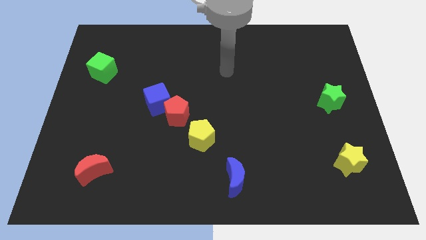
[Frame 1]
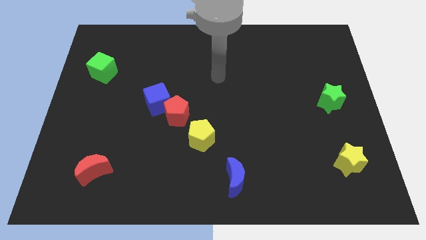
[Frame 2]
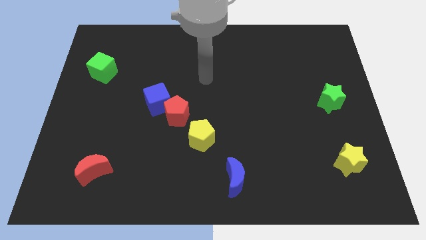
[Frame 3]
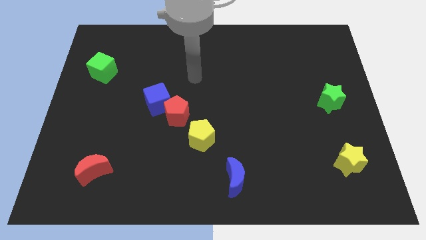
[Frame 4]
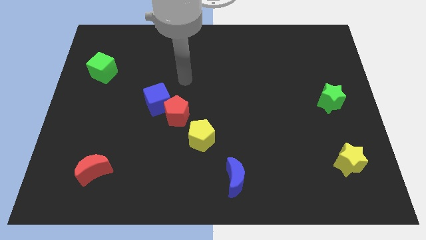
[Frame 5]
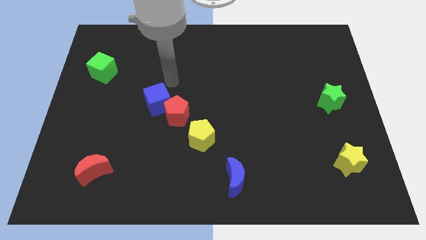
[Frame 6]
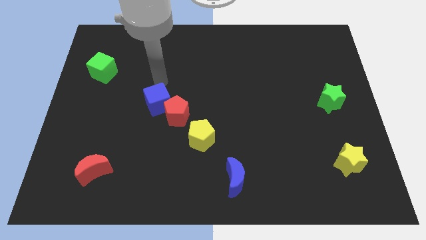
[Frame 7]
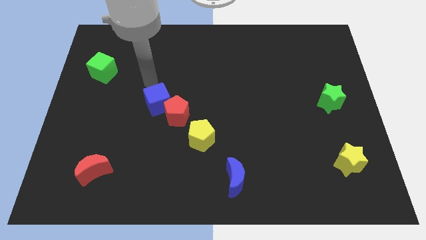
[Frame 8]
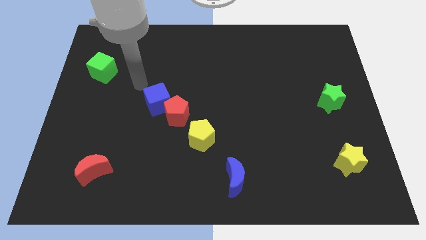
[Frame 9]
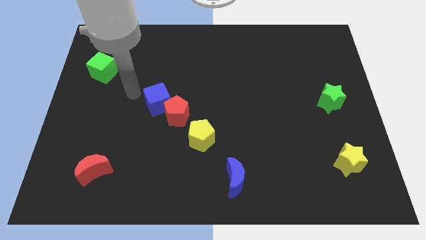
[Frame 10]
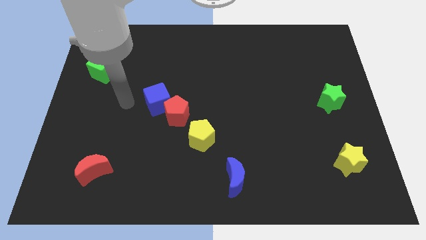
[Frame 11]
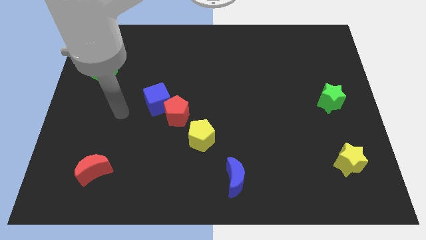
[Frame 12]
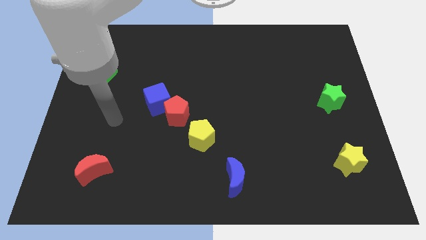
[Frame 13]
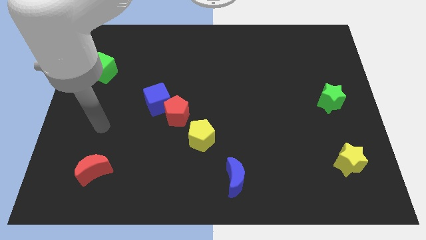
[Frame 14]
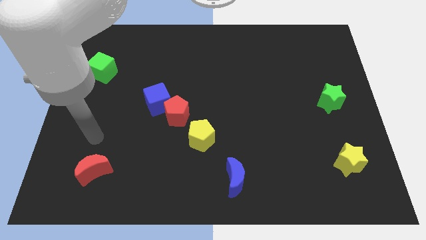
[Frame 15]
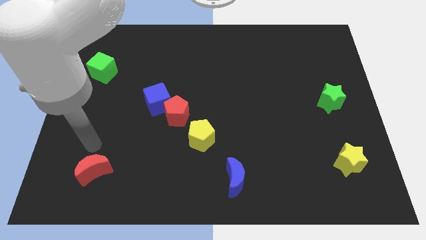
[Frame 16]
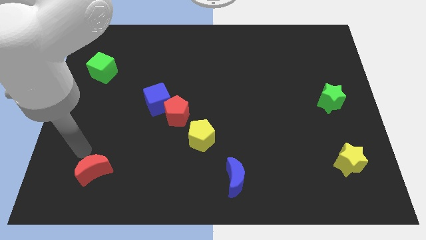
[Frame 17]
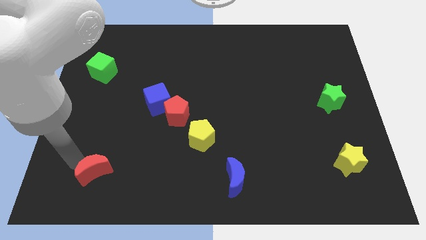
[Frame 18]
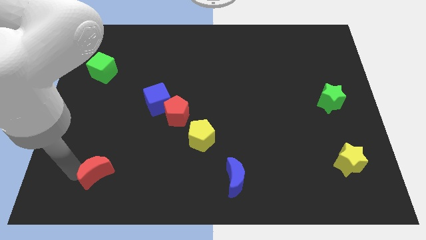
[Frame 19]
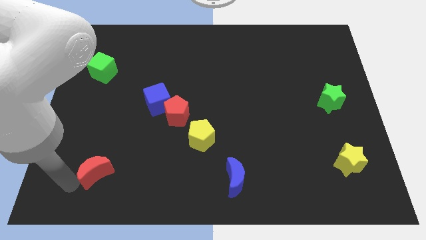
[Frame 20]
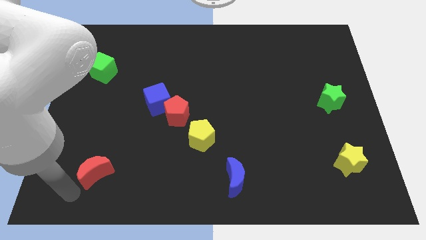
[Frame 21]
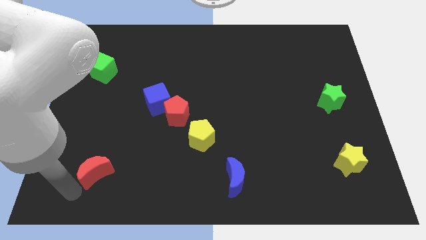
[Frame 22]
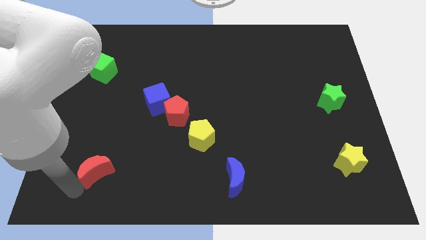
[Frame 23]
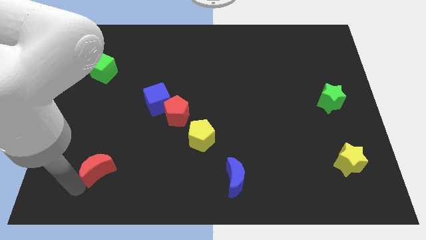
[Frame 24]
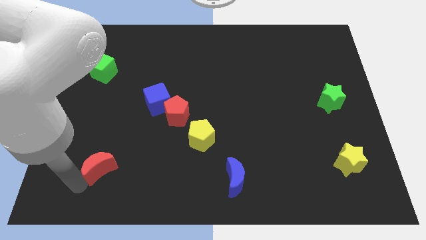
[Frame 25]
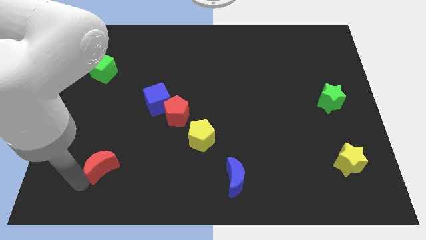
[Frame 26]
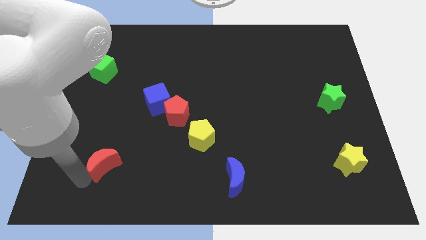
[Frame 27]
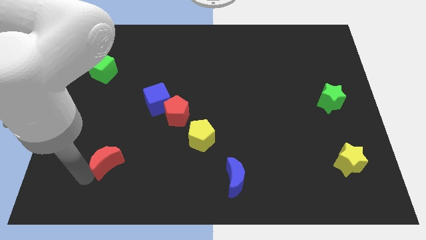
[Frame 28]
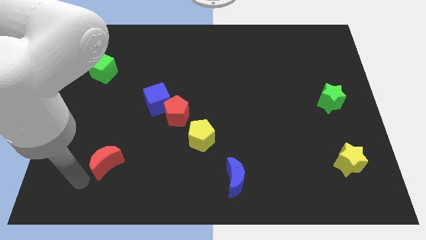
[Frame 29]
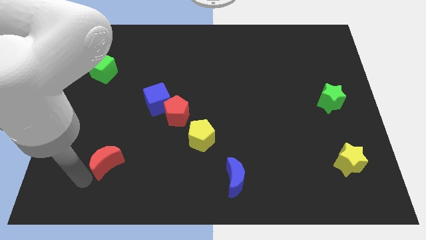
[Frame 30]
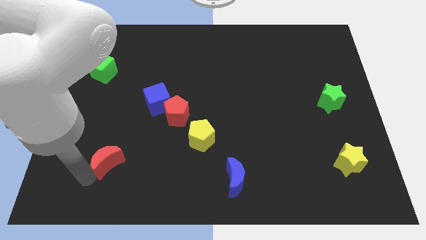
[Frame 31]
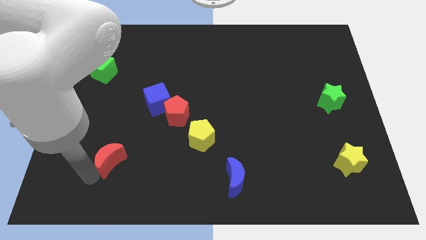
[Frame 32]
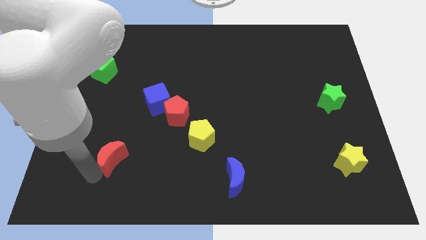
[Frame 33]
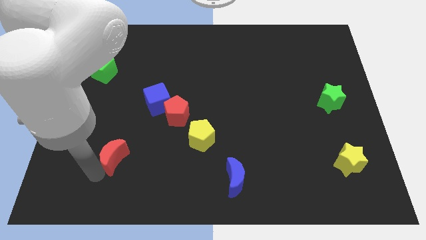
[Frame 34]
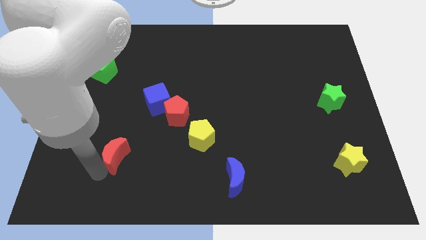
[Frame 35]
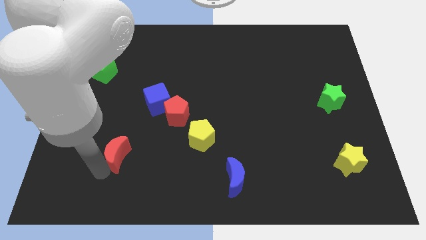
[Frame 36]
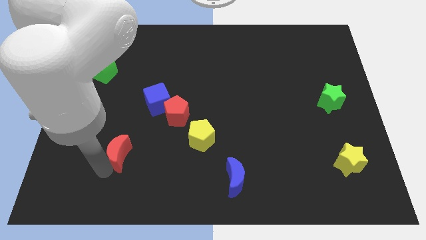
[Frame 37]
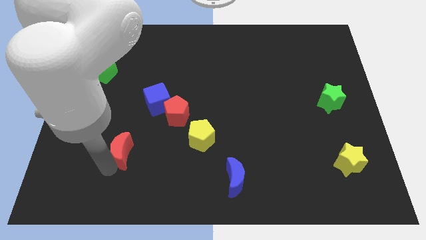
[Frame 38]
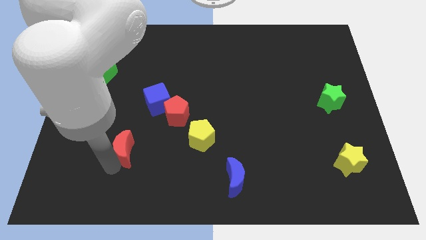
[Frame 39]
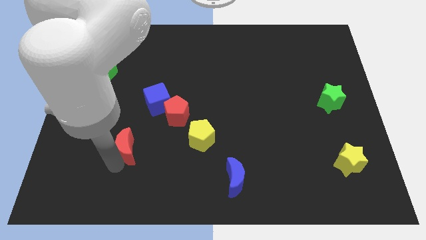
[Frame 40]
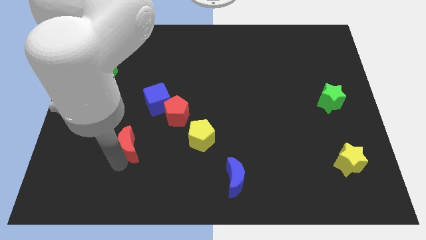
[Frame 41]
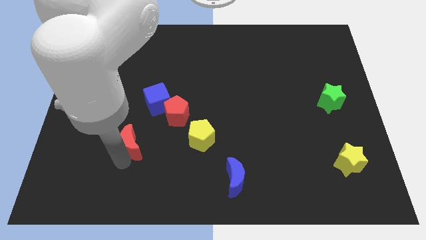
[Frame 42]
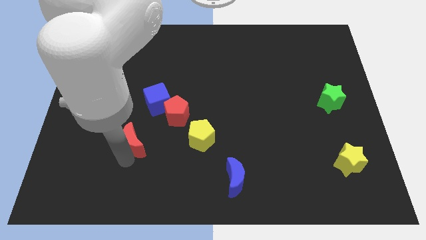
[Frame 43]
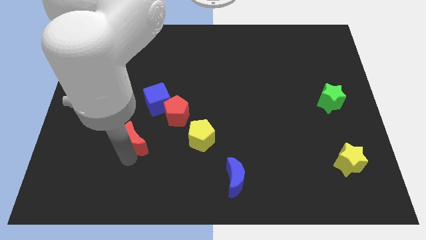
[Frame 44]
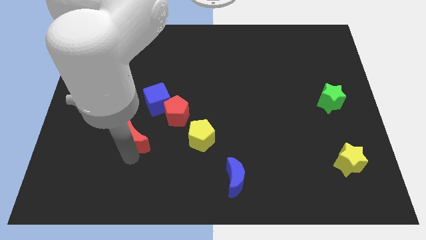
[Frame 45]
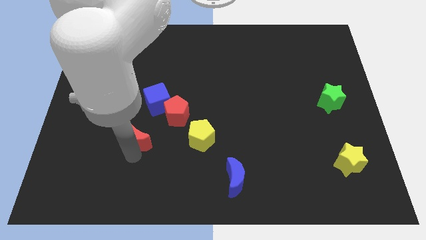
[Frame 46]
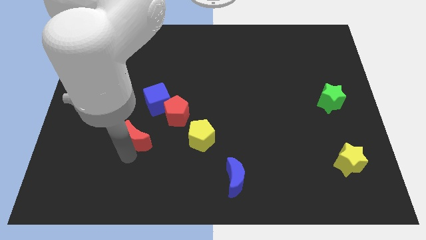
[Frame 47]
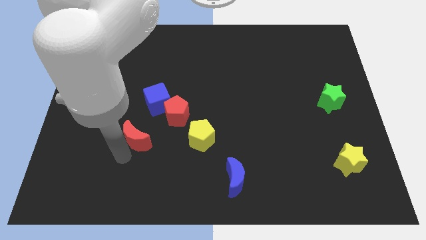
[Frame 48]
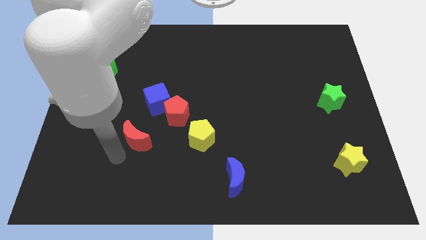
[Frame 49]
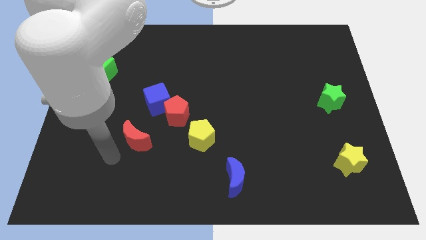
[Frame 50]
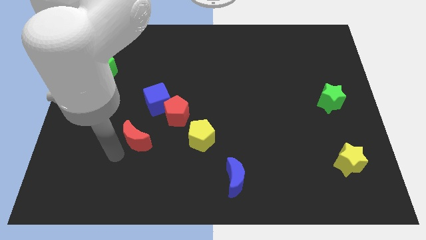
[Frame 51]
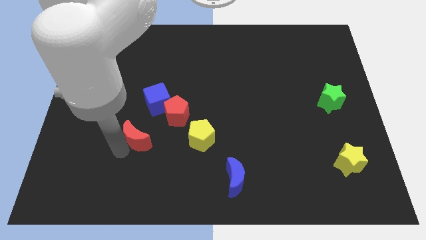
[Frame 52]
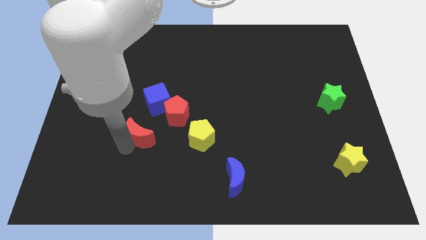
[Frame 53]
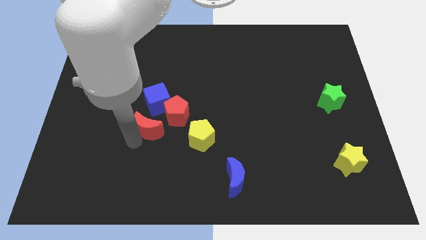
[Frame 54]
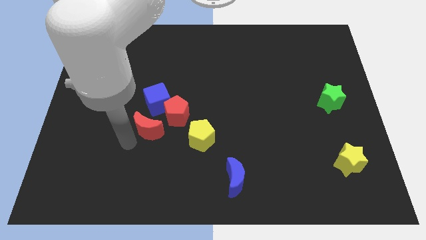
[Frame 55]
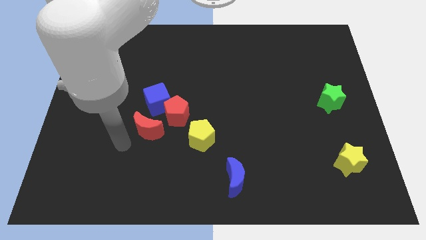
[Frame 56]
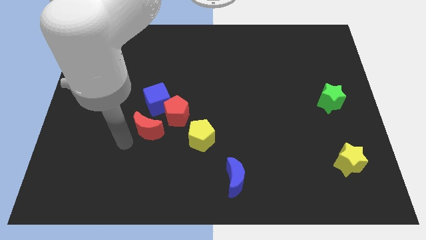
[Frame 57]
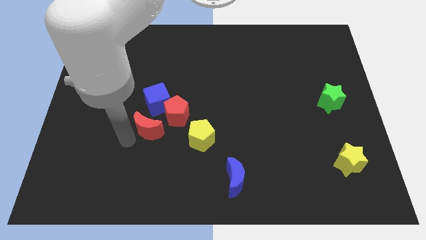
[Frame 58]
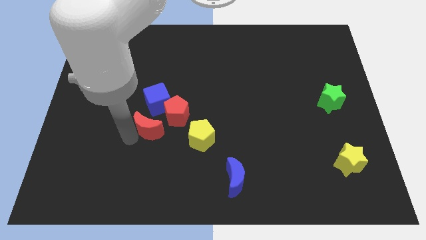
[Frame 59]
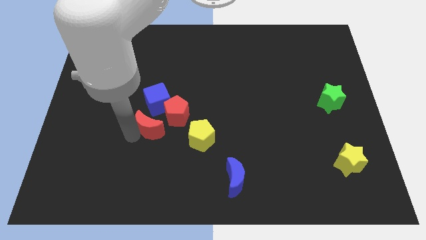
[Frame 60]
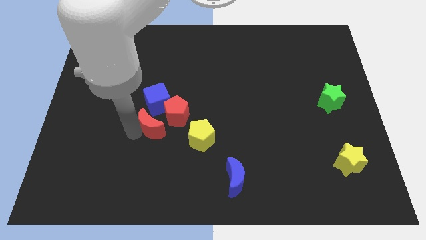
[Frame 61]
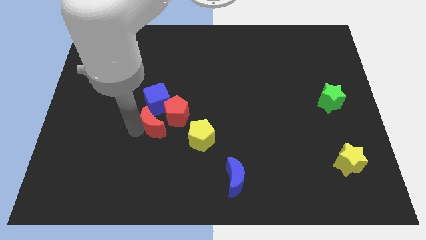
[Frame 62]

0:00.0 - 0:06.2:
move the red moon next to the red pentagon
